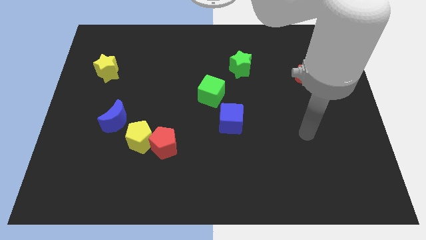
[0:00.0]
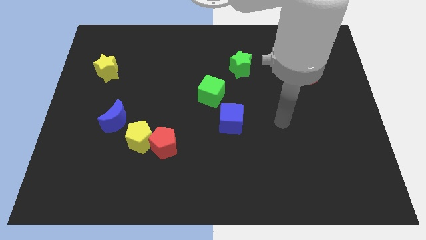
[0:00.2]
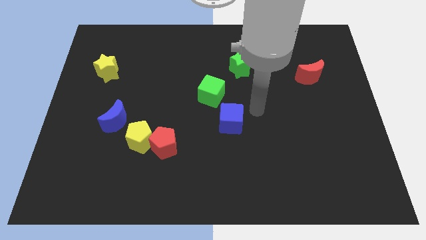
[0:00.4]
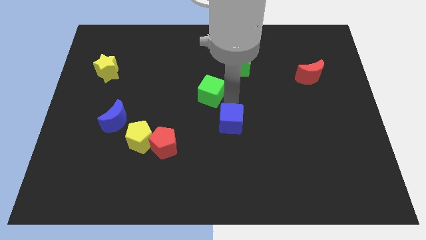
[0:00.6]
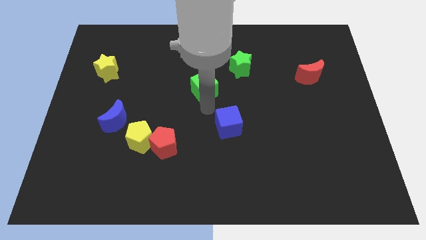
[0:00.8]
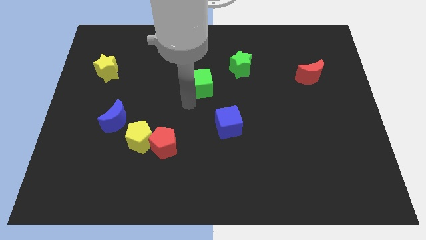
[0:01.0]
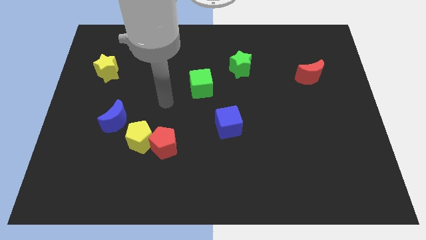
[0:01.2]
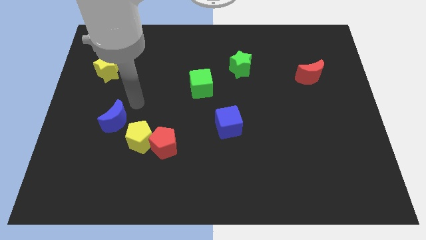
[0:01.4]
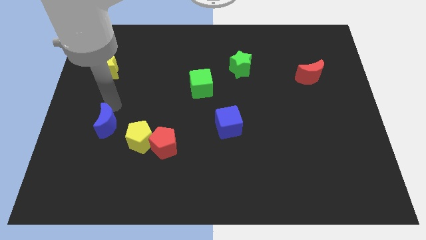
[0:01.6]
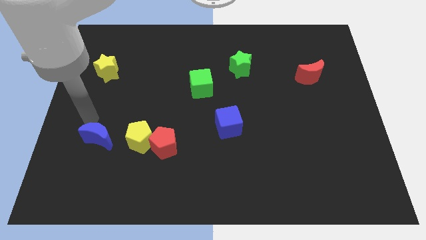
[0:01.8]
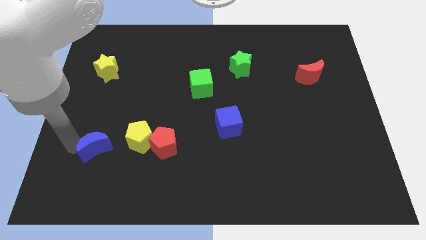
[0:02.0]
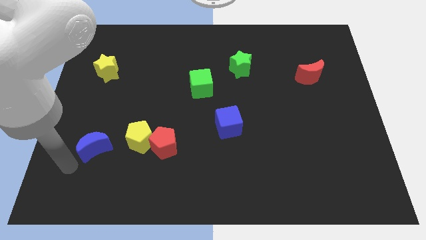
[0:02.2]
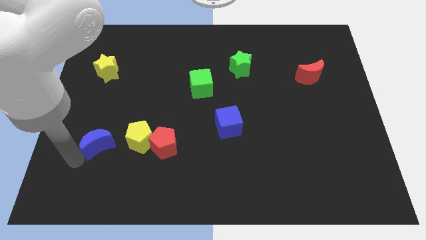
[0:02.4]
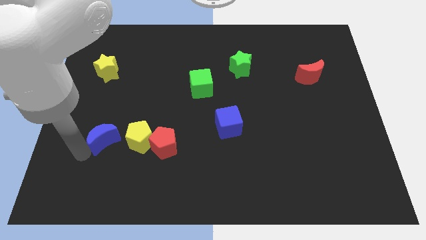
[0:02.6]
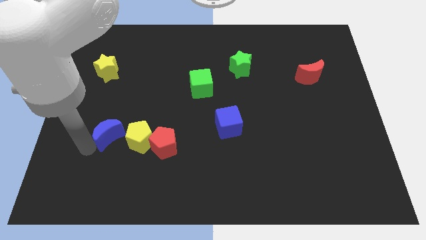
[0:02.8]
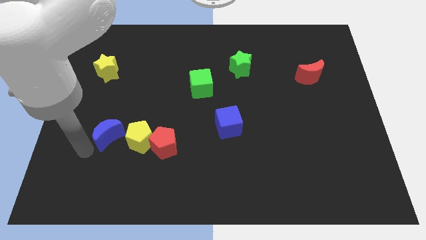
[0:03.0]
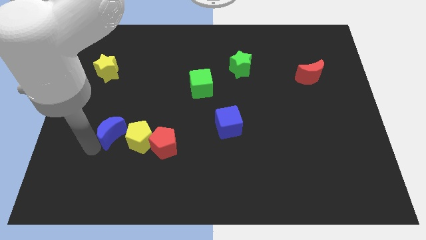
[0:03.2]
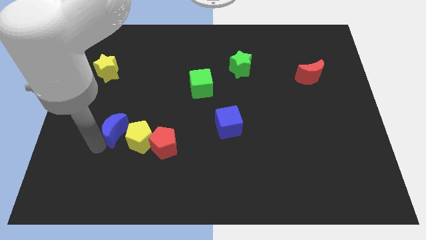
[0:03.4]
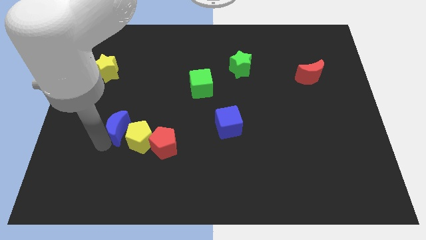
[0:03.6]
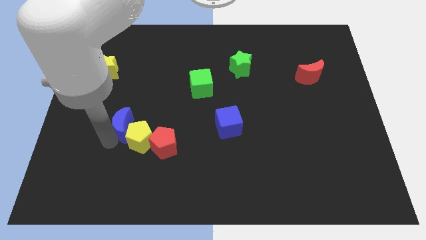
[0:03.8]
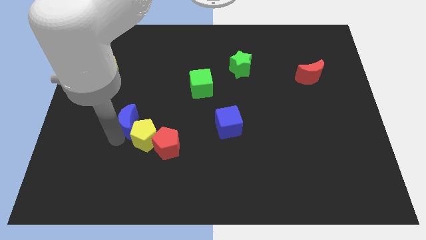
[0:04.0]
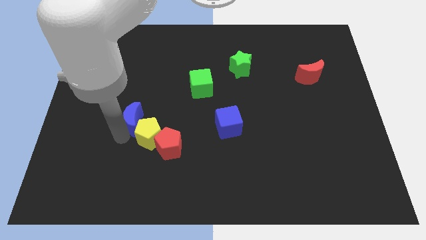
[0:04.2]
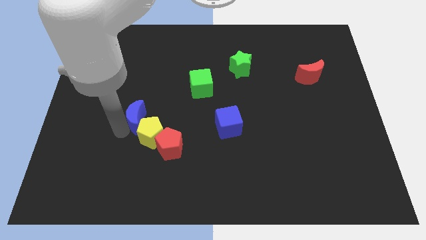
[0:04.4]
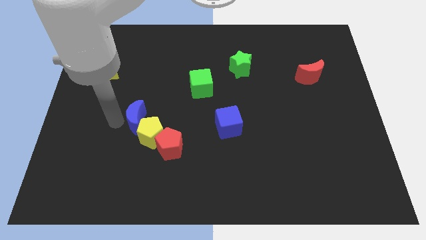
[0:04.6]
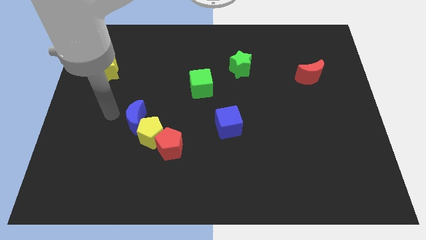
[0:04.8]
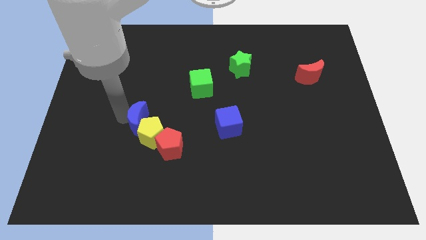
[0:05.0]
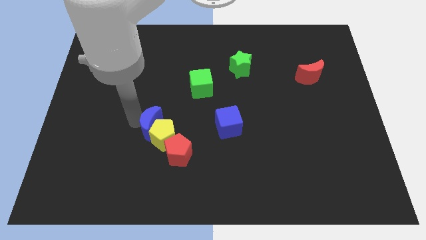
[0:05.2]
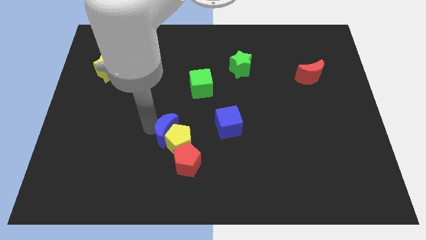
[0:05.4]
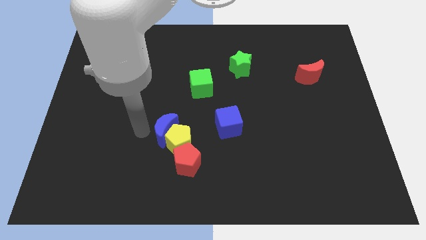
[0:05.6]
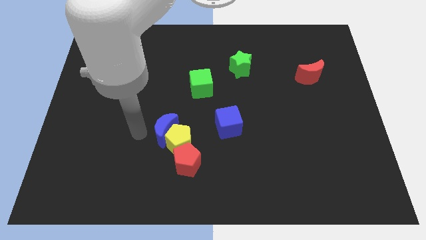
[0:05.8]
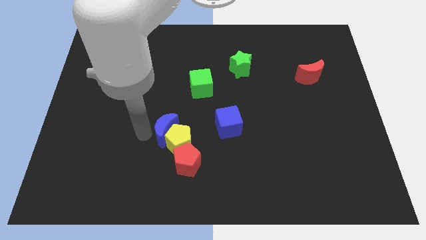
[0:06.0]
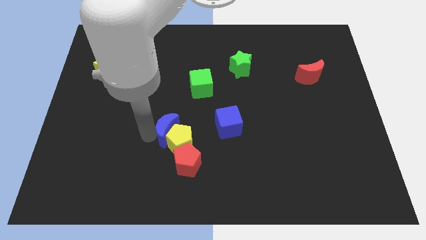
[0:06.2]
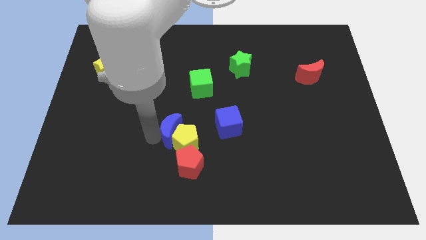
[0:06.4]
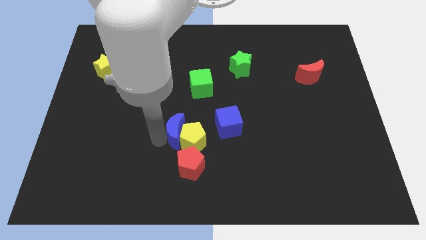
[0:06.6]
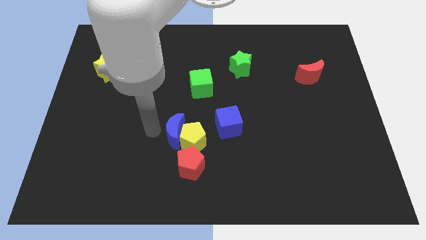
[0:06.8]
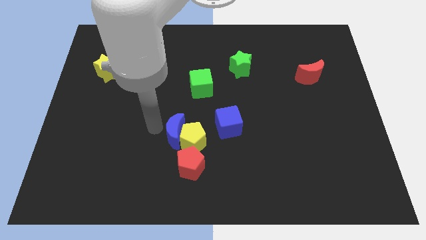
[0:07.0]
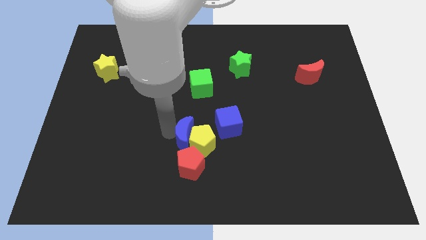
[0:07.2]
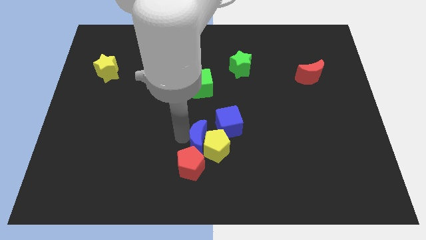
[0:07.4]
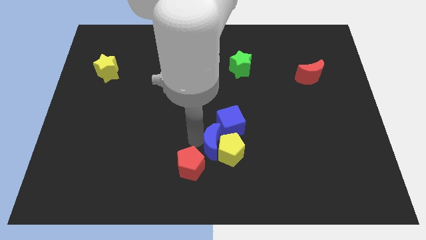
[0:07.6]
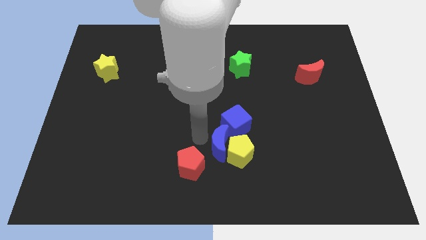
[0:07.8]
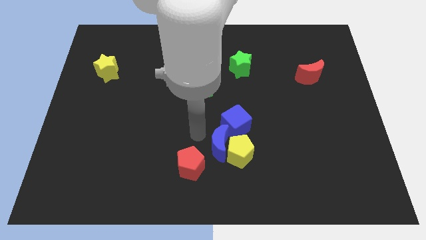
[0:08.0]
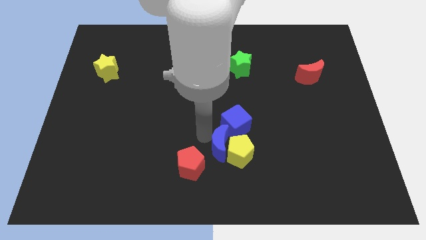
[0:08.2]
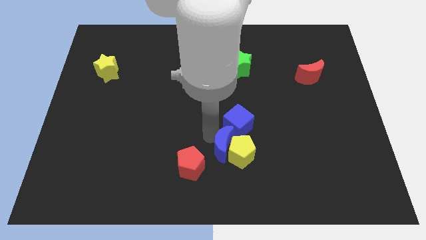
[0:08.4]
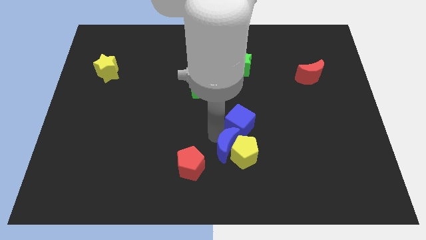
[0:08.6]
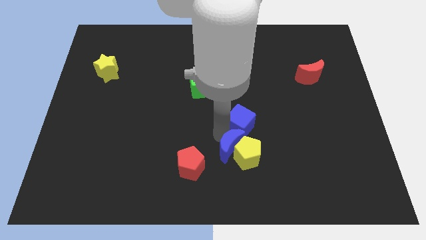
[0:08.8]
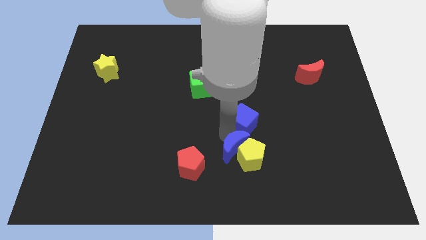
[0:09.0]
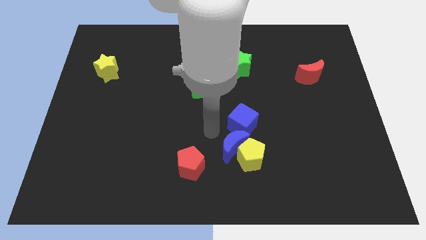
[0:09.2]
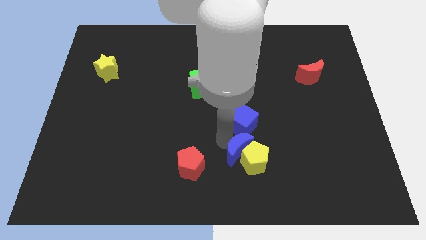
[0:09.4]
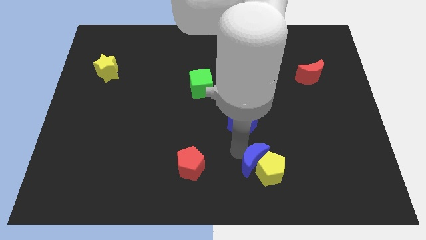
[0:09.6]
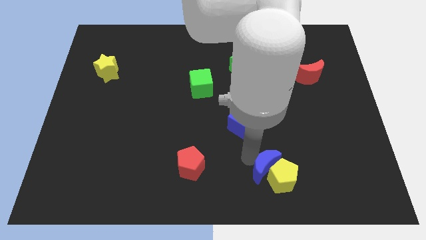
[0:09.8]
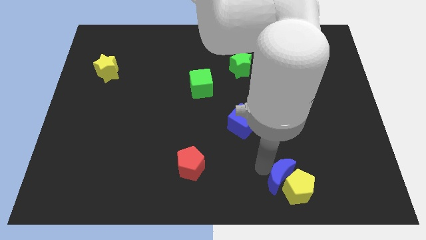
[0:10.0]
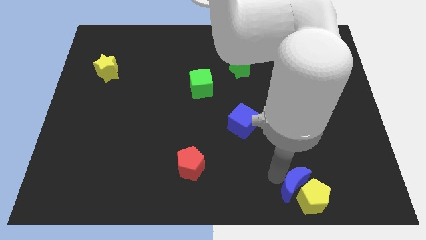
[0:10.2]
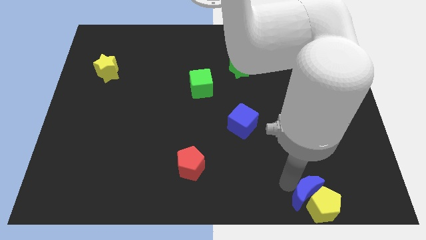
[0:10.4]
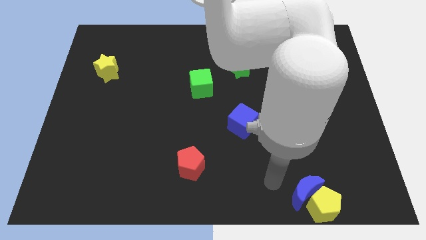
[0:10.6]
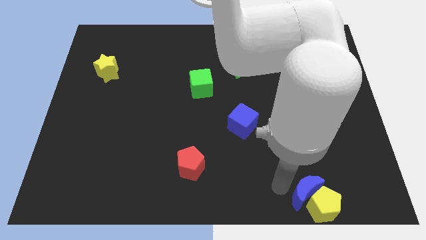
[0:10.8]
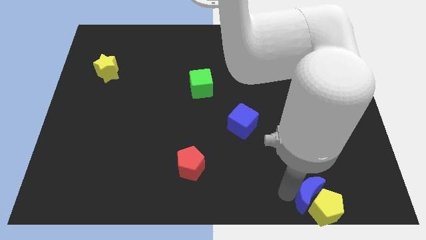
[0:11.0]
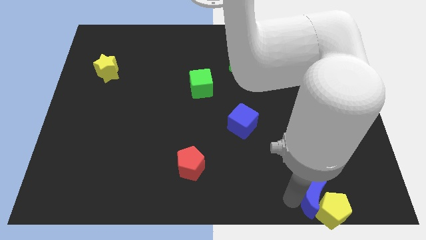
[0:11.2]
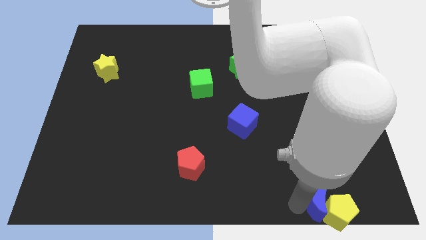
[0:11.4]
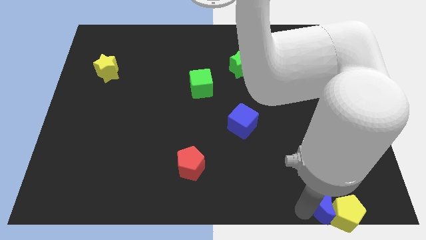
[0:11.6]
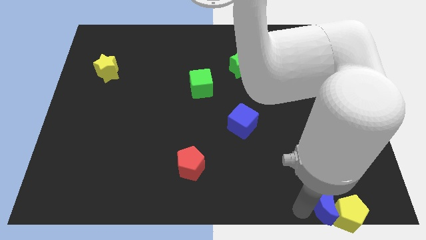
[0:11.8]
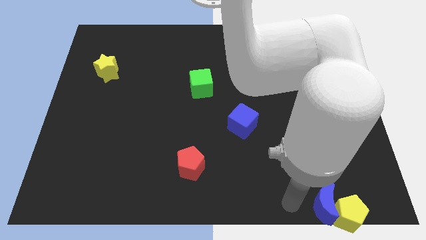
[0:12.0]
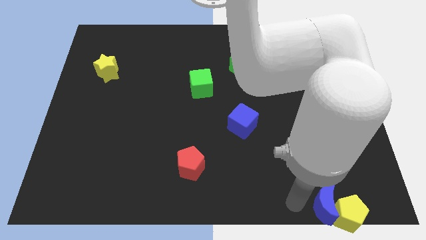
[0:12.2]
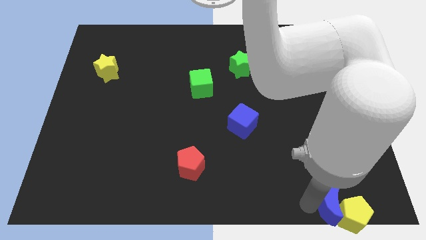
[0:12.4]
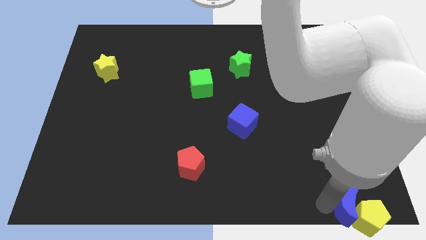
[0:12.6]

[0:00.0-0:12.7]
slide the blue moon to the bottom right corner

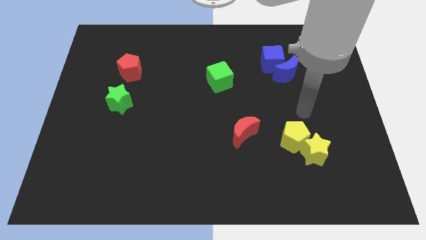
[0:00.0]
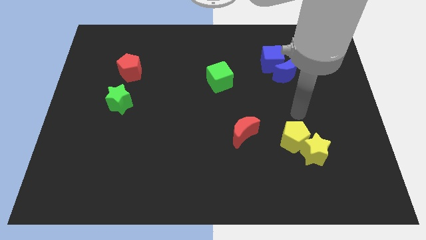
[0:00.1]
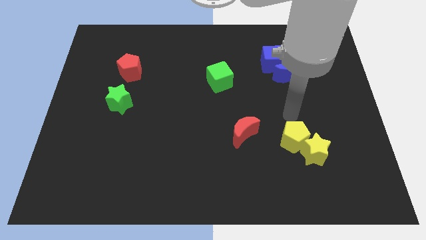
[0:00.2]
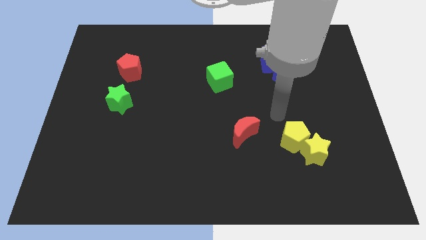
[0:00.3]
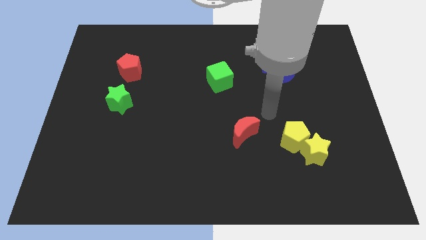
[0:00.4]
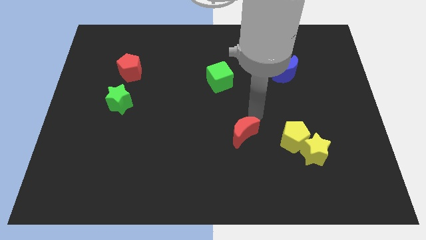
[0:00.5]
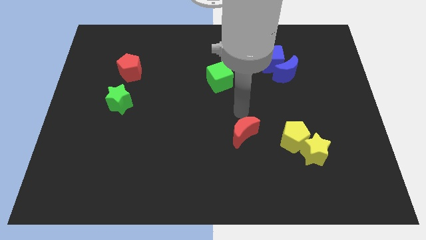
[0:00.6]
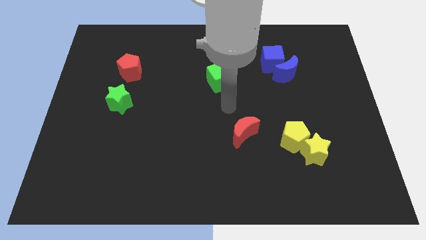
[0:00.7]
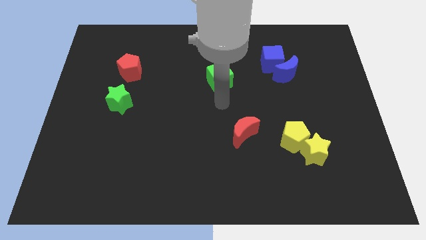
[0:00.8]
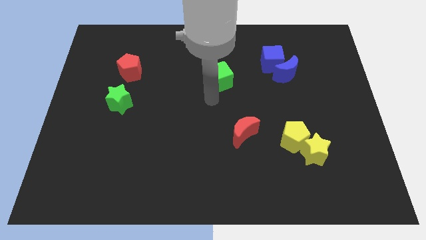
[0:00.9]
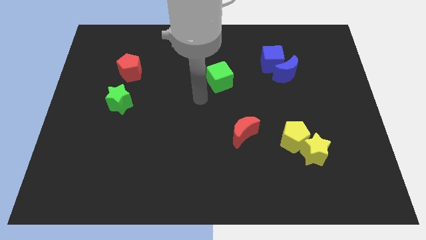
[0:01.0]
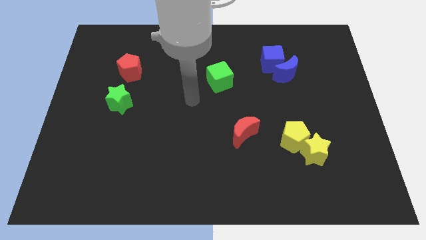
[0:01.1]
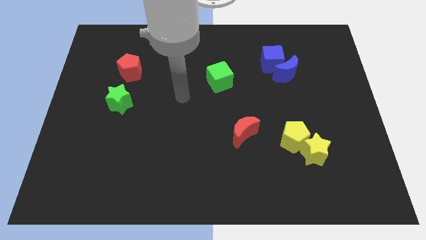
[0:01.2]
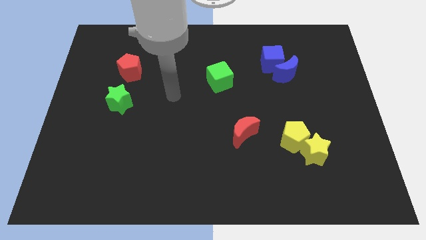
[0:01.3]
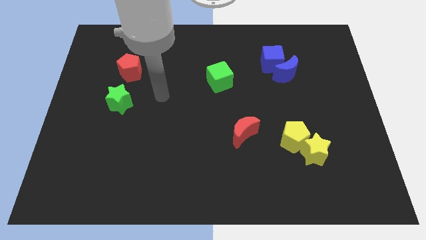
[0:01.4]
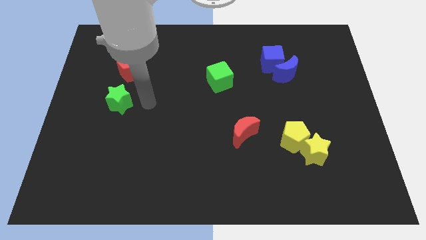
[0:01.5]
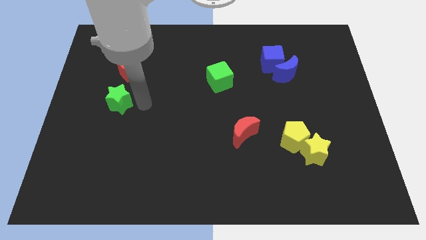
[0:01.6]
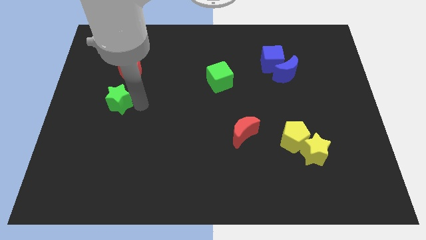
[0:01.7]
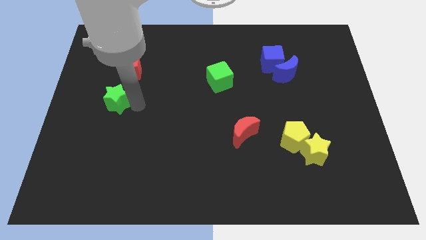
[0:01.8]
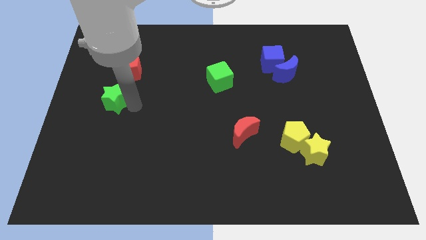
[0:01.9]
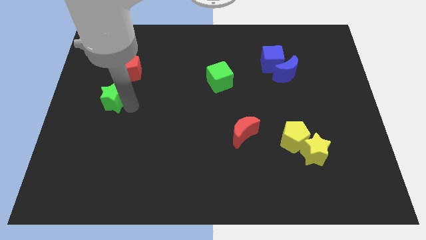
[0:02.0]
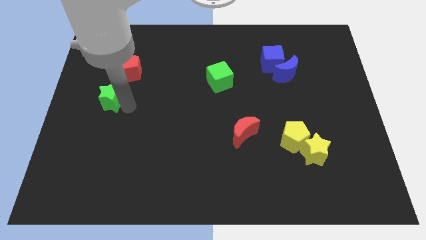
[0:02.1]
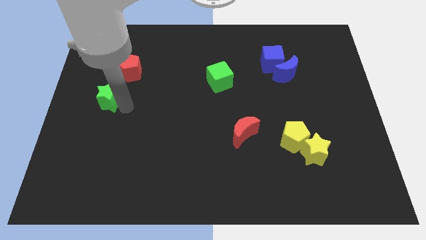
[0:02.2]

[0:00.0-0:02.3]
put the green star to the left side
